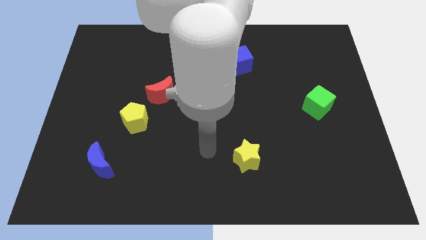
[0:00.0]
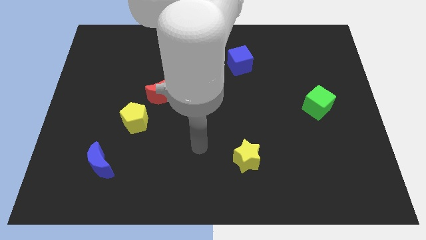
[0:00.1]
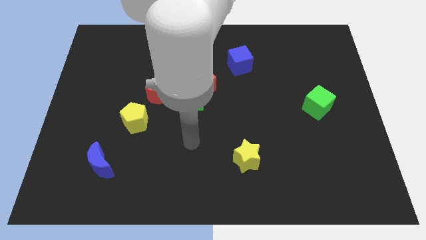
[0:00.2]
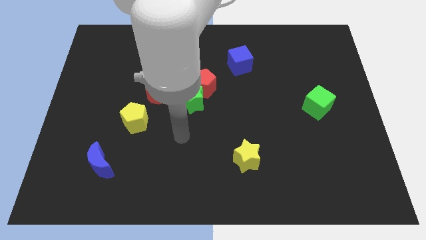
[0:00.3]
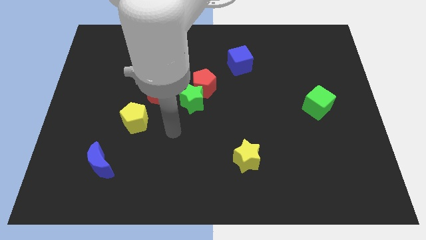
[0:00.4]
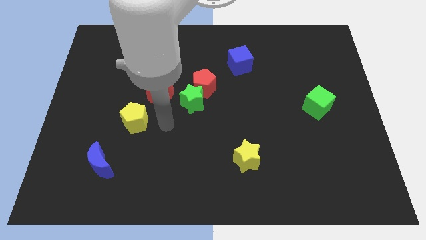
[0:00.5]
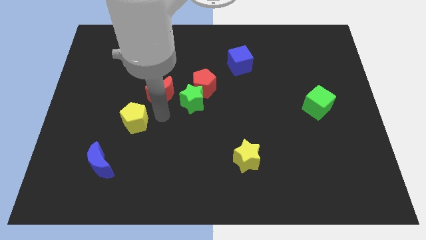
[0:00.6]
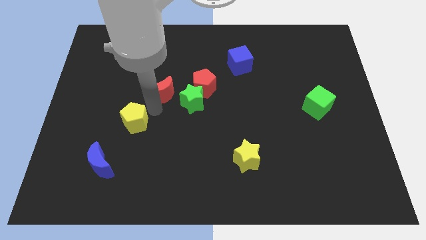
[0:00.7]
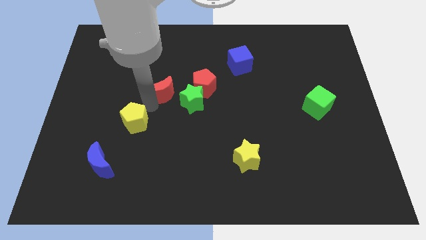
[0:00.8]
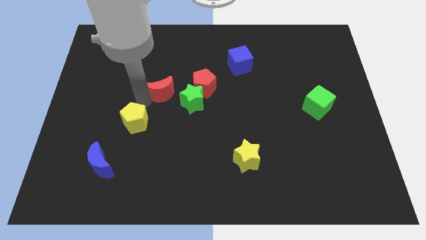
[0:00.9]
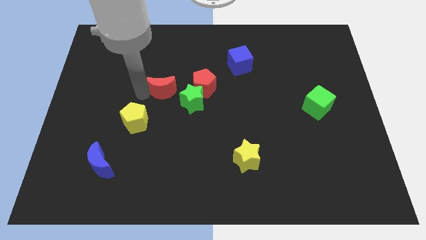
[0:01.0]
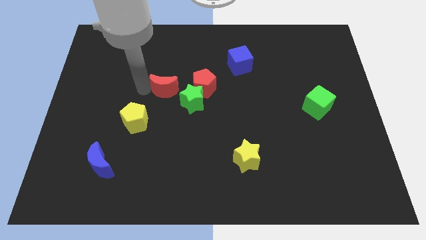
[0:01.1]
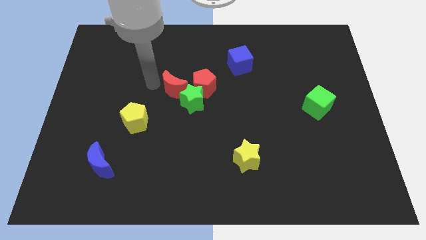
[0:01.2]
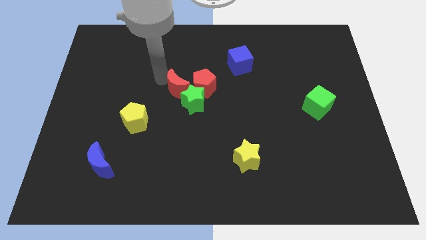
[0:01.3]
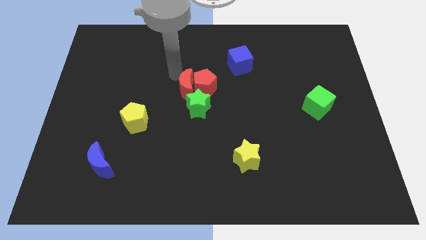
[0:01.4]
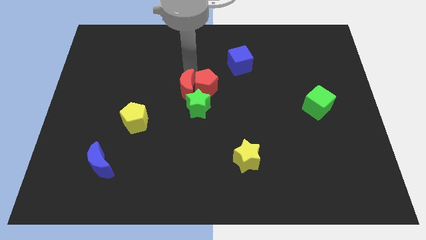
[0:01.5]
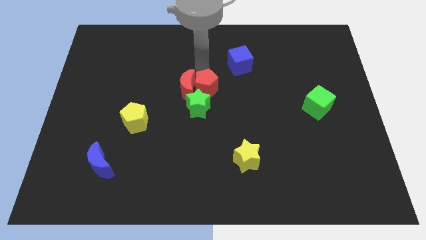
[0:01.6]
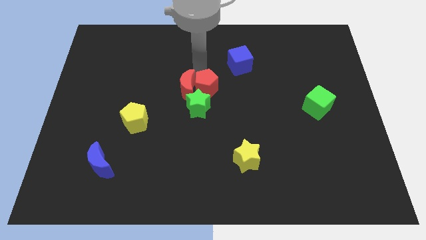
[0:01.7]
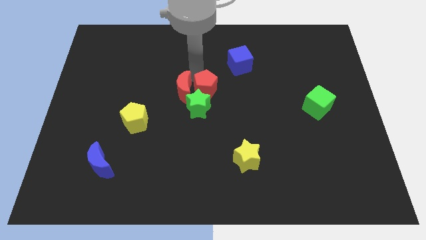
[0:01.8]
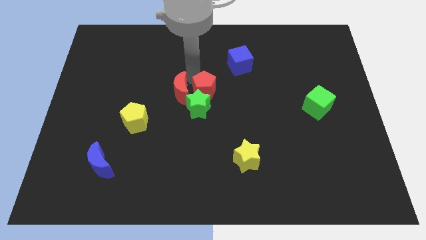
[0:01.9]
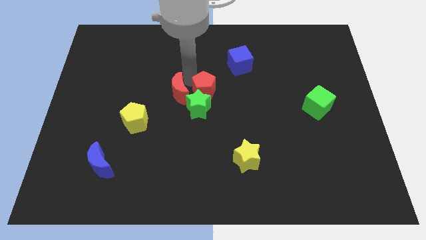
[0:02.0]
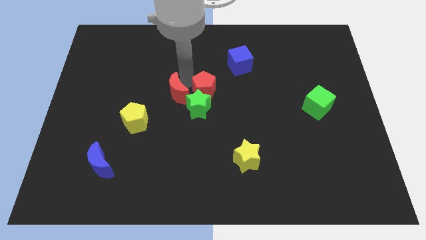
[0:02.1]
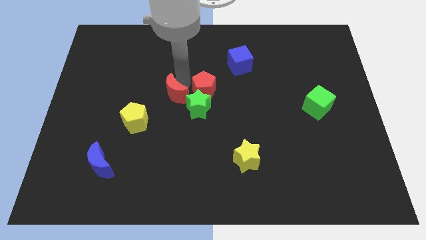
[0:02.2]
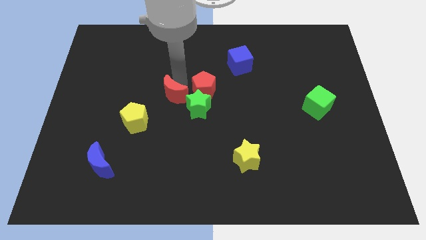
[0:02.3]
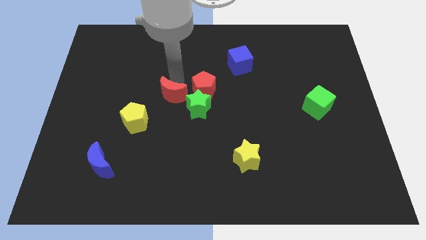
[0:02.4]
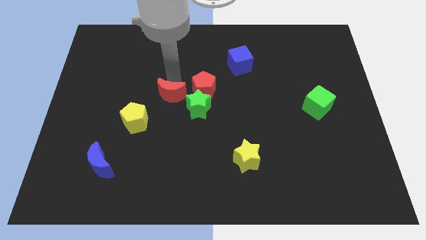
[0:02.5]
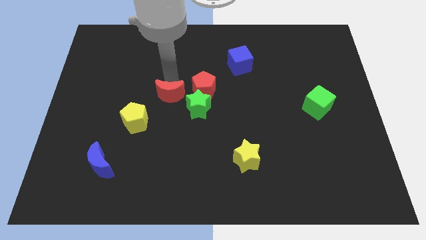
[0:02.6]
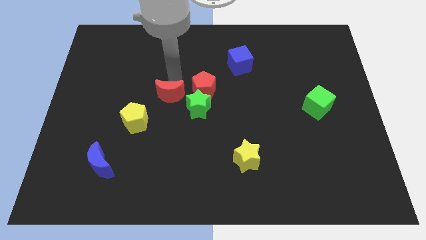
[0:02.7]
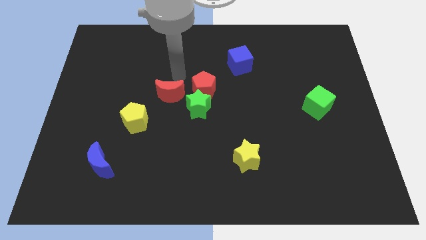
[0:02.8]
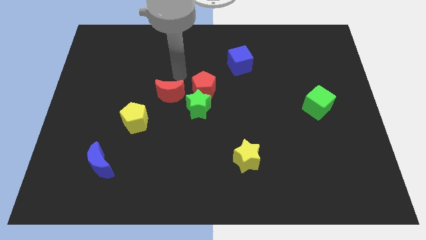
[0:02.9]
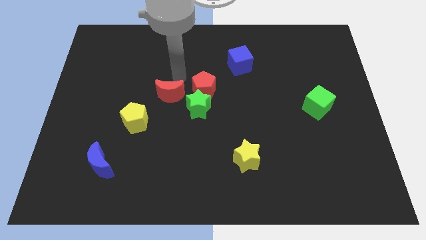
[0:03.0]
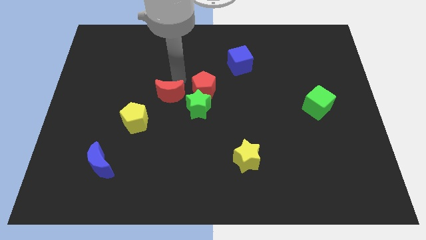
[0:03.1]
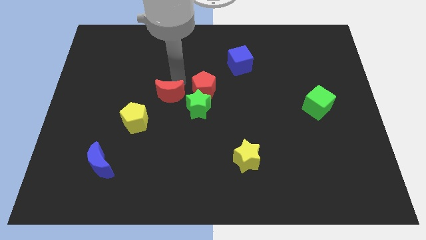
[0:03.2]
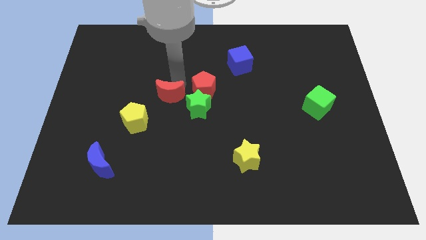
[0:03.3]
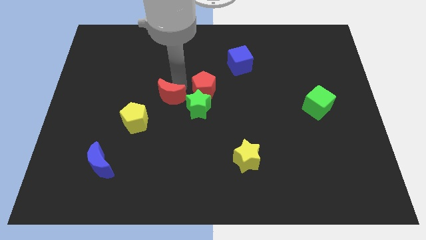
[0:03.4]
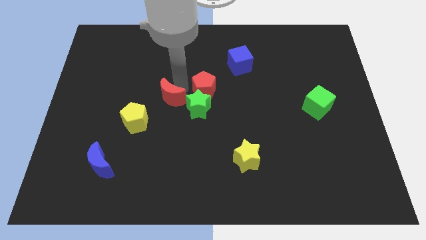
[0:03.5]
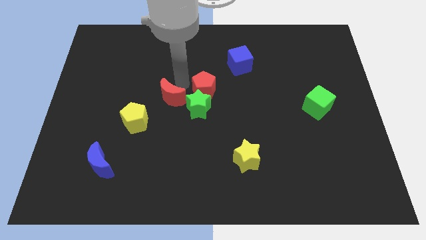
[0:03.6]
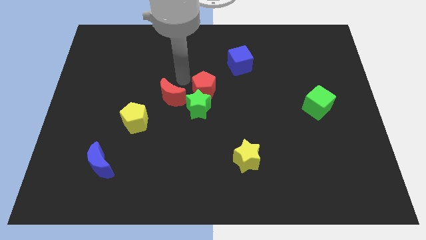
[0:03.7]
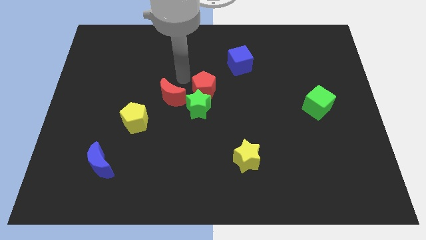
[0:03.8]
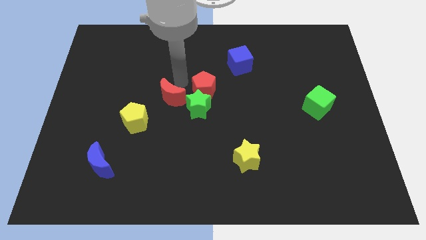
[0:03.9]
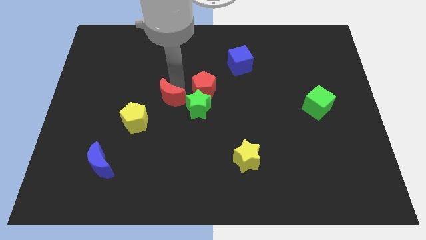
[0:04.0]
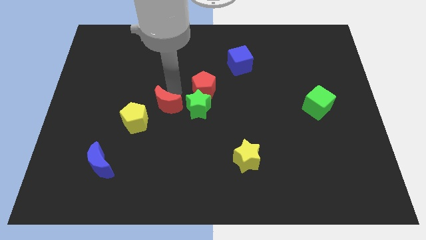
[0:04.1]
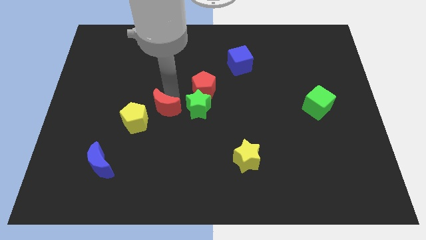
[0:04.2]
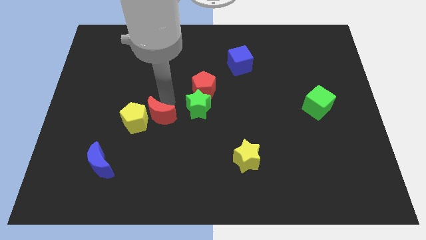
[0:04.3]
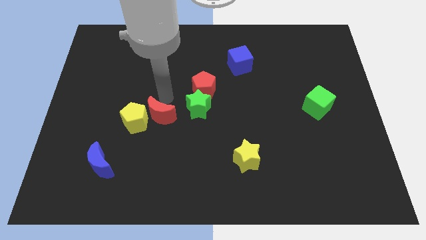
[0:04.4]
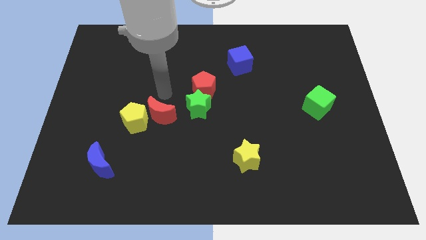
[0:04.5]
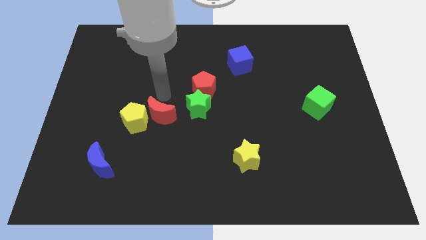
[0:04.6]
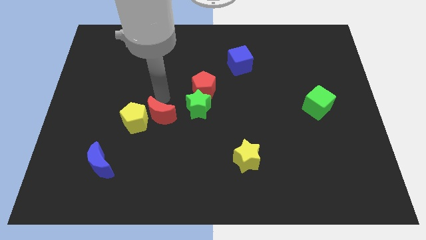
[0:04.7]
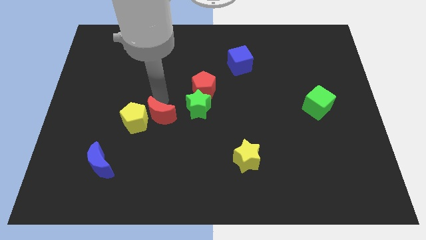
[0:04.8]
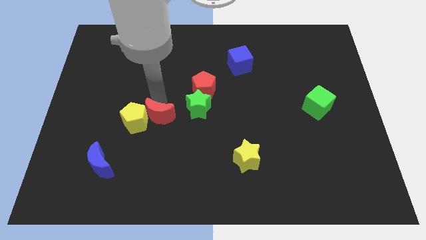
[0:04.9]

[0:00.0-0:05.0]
push the red moon to the bottom right of the yellow pentagon

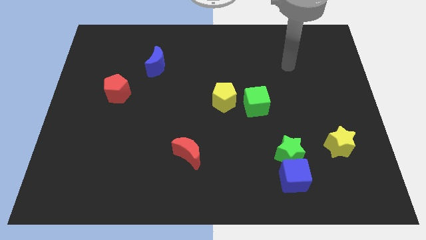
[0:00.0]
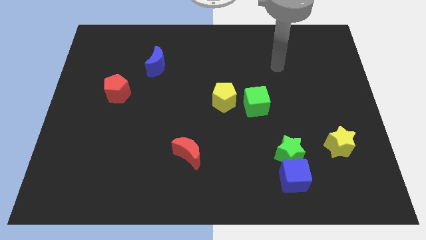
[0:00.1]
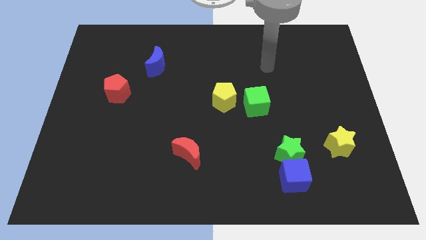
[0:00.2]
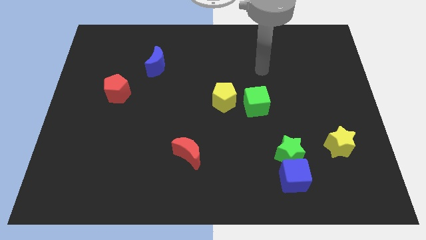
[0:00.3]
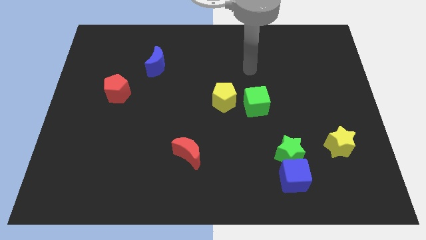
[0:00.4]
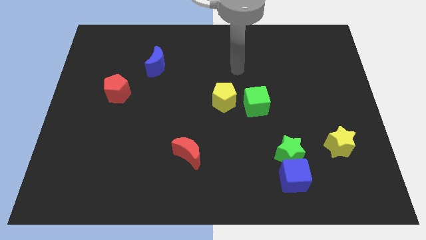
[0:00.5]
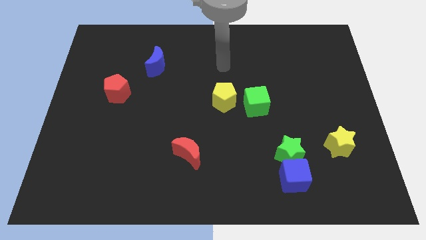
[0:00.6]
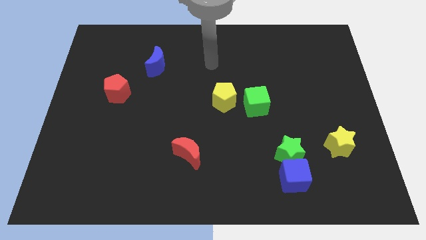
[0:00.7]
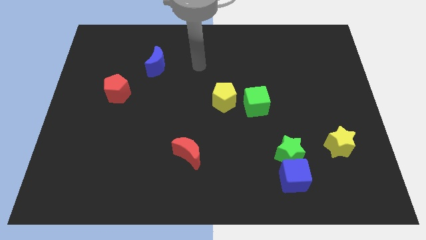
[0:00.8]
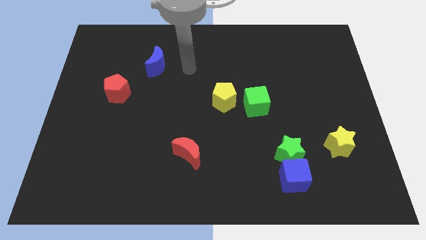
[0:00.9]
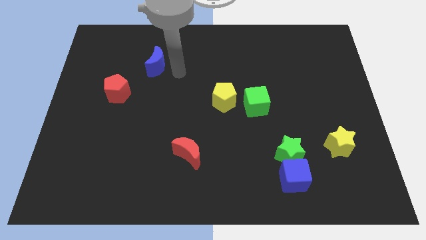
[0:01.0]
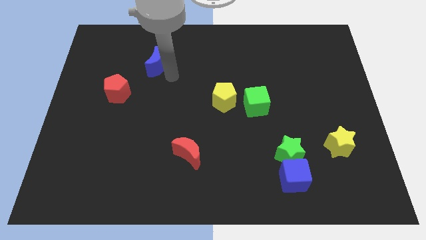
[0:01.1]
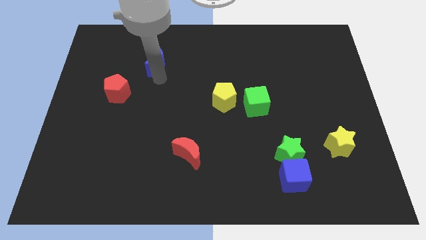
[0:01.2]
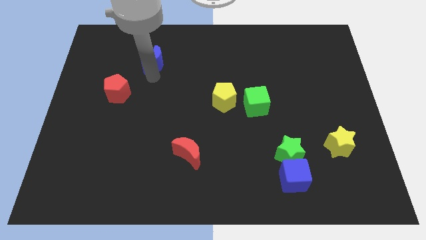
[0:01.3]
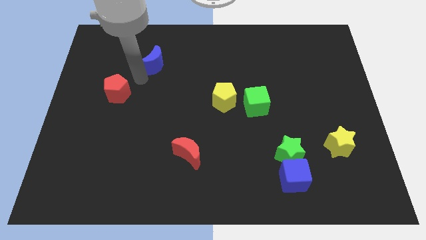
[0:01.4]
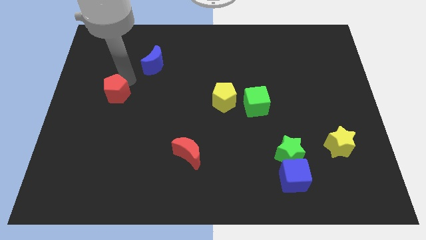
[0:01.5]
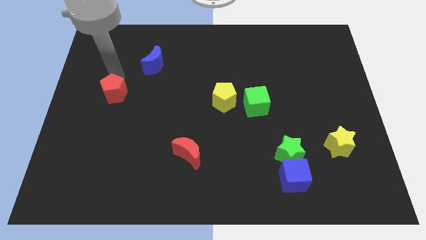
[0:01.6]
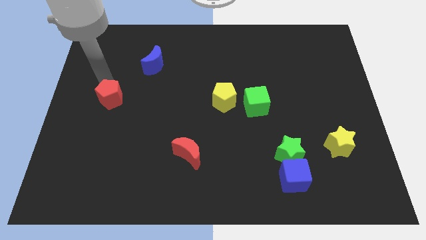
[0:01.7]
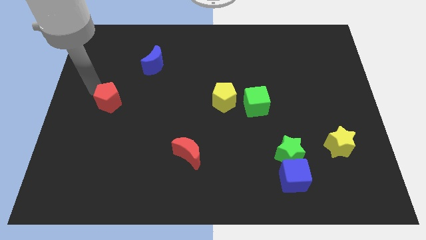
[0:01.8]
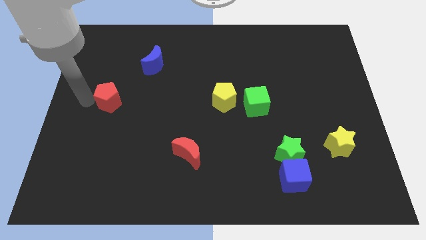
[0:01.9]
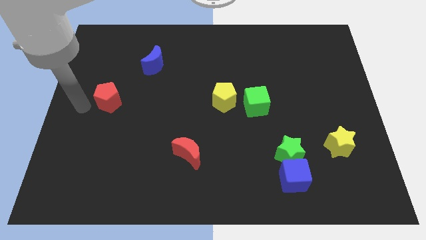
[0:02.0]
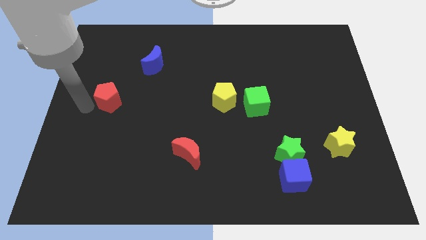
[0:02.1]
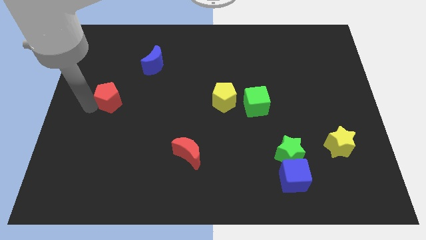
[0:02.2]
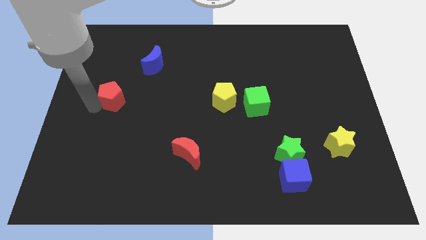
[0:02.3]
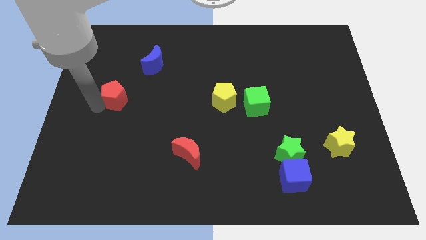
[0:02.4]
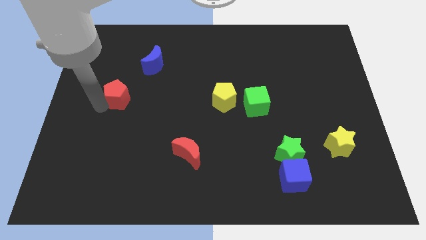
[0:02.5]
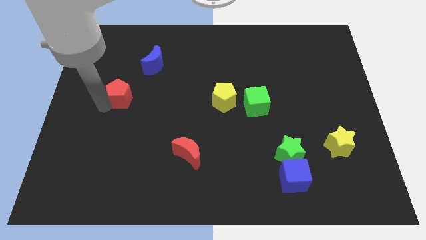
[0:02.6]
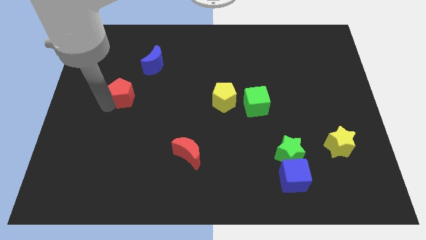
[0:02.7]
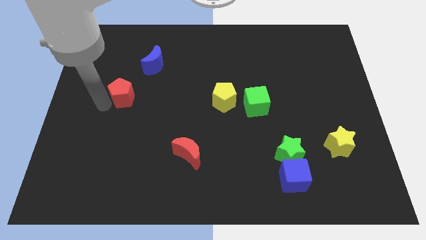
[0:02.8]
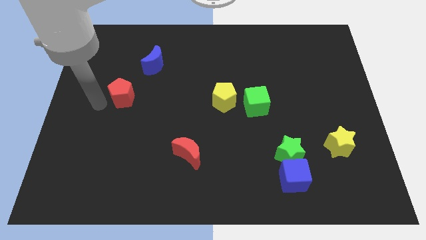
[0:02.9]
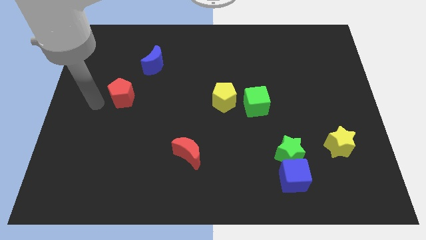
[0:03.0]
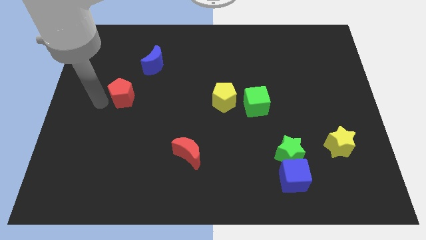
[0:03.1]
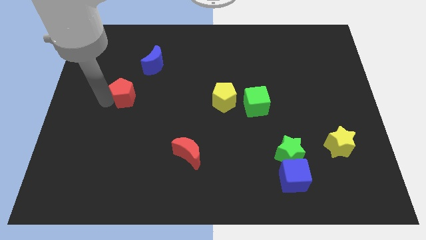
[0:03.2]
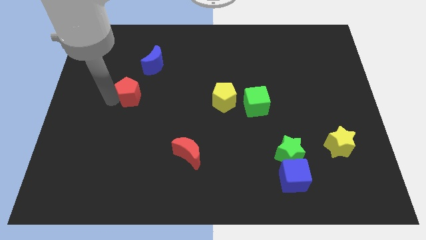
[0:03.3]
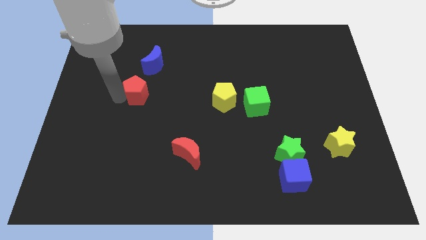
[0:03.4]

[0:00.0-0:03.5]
put the red pentagon below the blue moon
